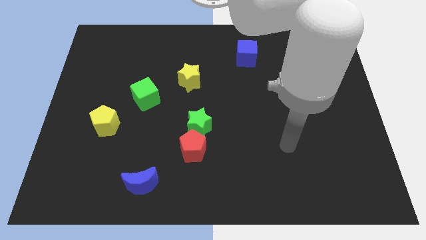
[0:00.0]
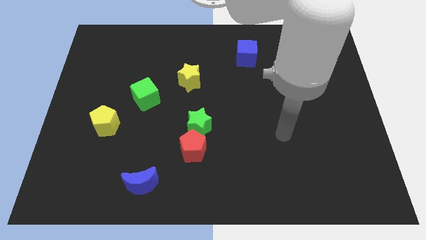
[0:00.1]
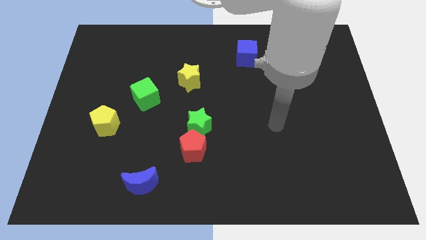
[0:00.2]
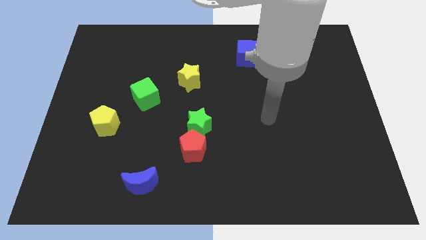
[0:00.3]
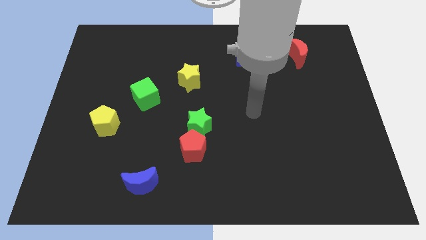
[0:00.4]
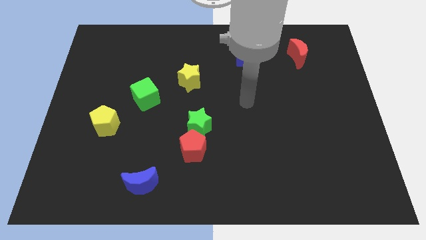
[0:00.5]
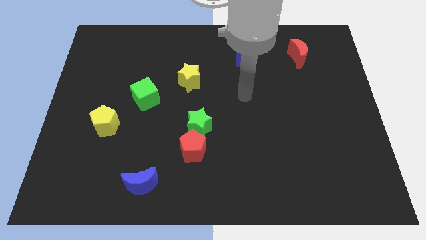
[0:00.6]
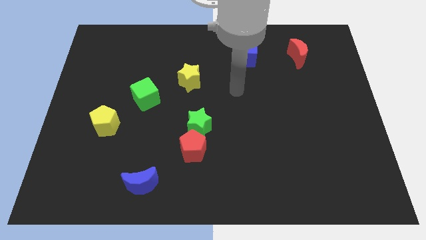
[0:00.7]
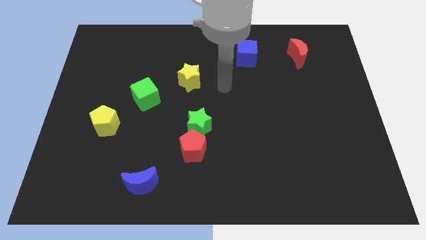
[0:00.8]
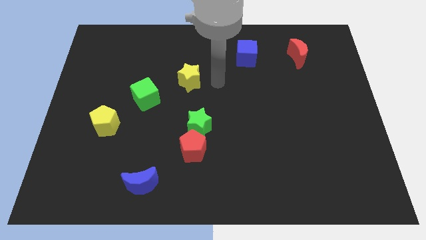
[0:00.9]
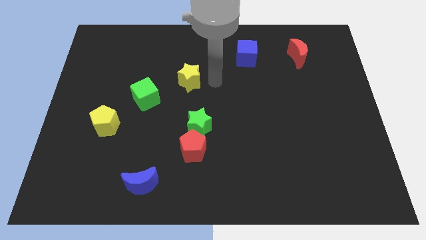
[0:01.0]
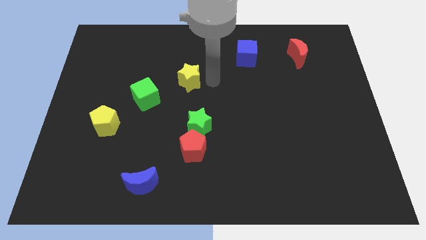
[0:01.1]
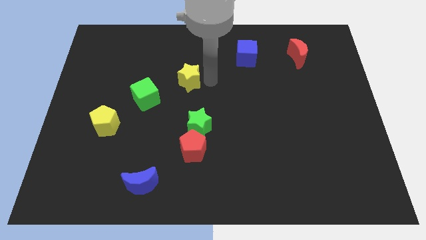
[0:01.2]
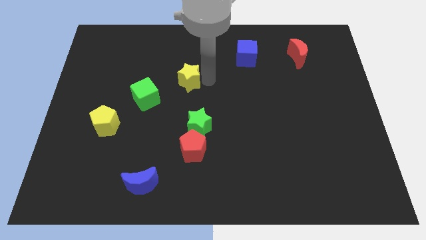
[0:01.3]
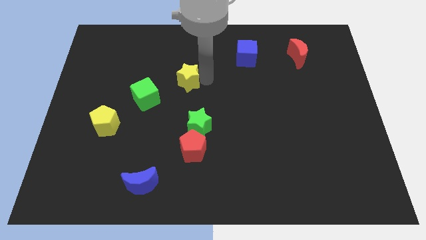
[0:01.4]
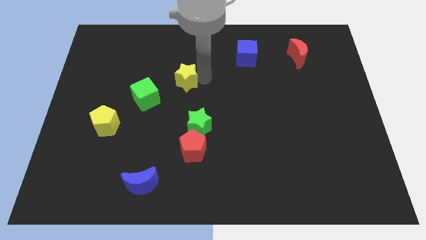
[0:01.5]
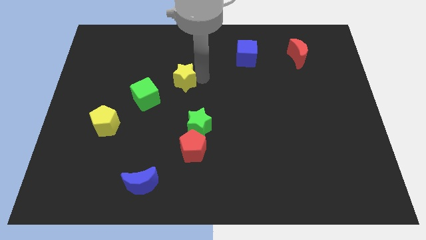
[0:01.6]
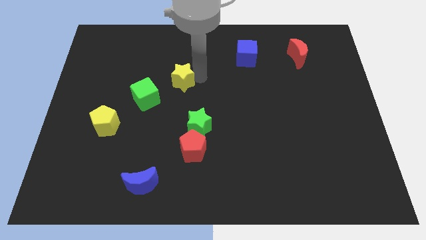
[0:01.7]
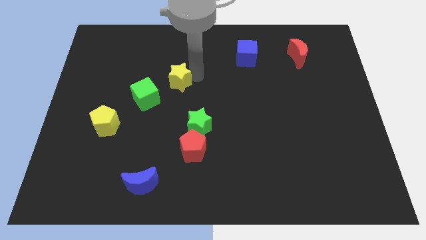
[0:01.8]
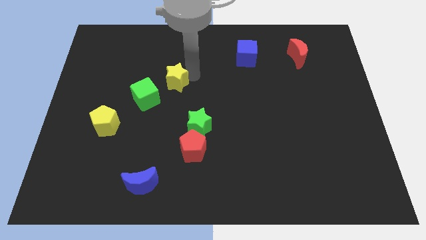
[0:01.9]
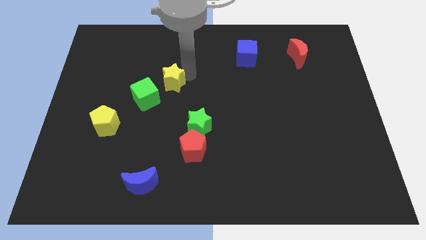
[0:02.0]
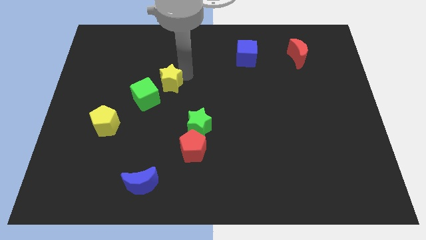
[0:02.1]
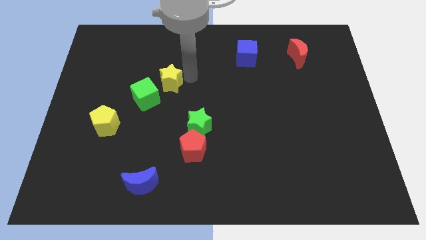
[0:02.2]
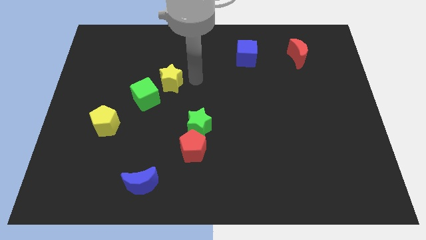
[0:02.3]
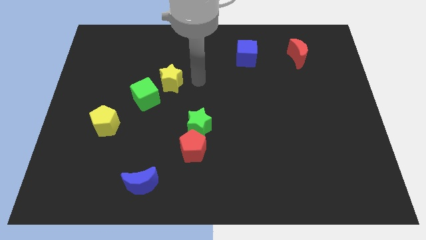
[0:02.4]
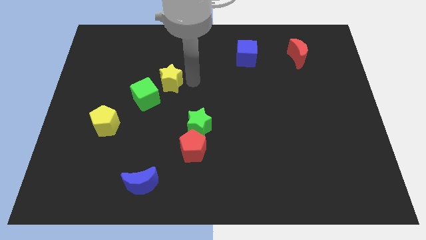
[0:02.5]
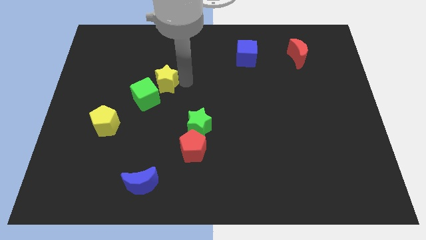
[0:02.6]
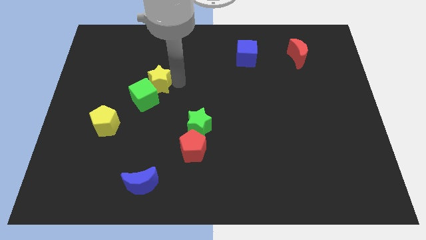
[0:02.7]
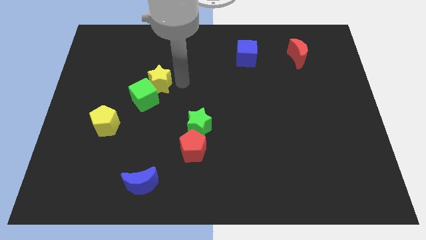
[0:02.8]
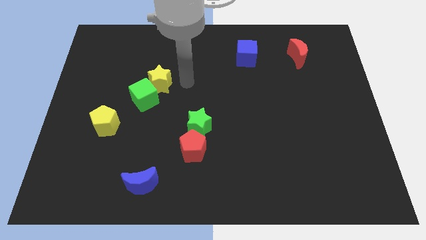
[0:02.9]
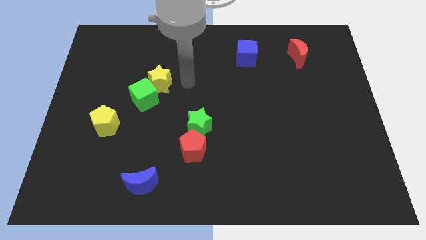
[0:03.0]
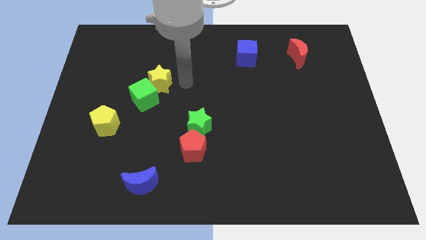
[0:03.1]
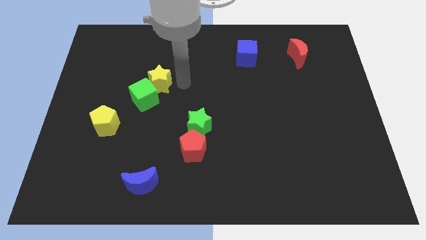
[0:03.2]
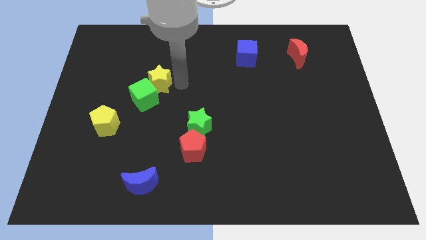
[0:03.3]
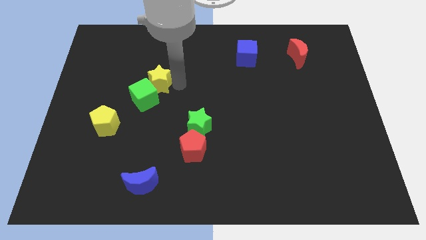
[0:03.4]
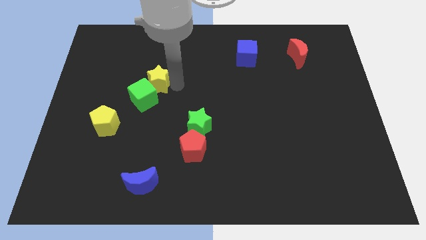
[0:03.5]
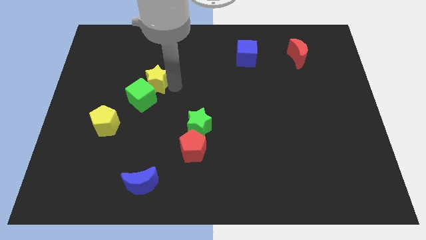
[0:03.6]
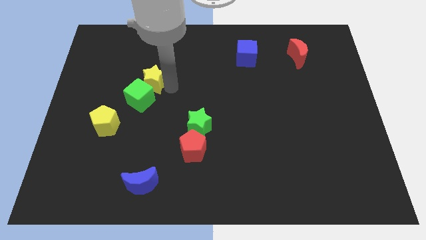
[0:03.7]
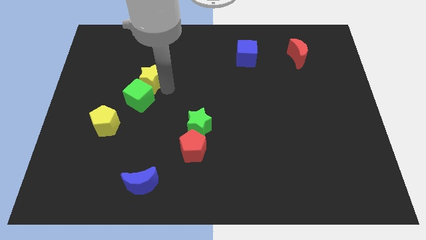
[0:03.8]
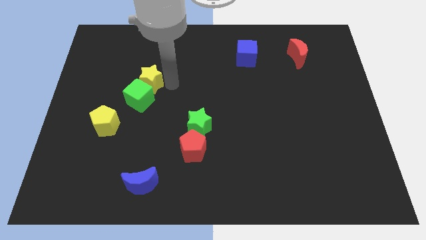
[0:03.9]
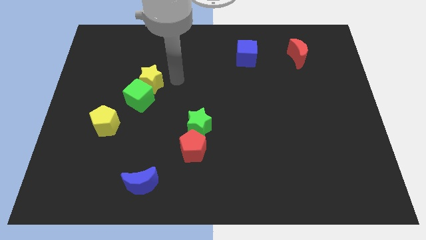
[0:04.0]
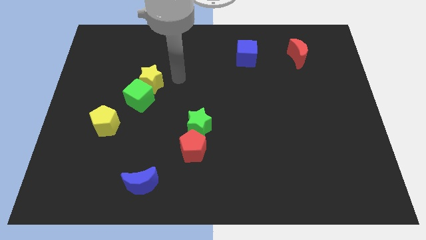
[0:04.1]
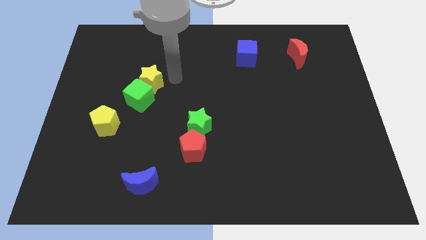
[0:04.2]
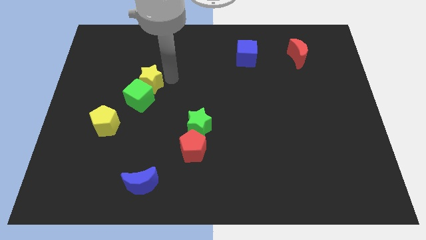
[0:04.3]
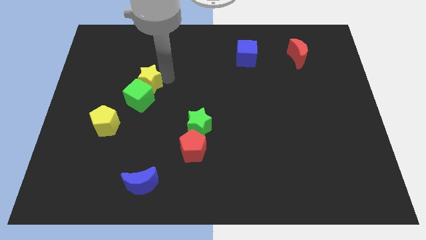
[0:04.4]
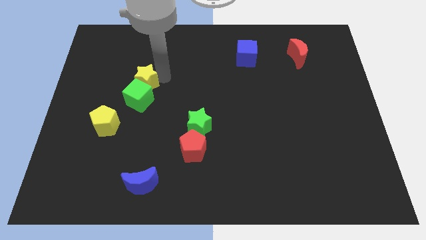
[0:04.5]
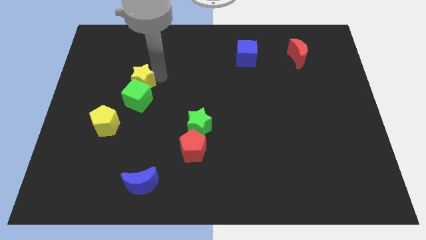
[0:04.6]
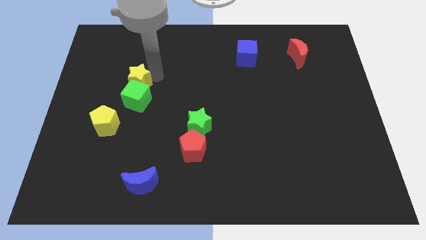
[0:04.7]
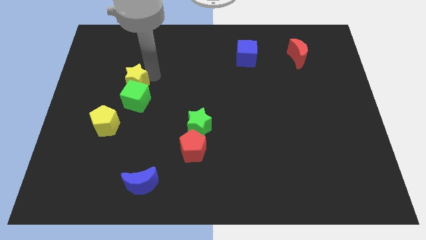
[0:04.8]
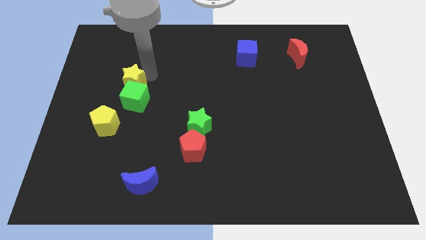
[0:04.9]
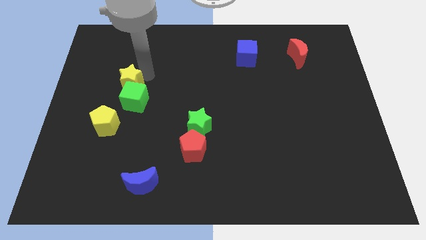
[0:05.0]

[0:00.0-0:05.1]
move the yellow star to the top of the yellow pentagon

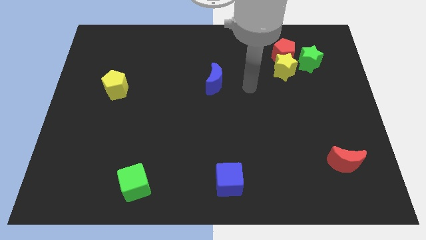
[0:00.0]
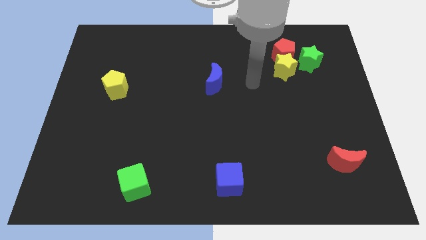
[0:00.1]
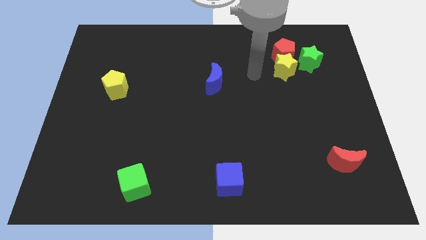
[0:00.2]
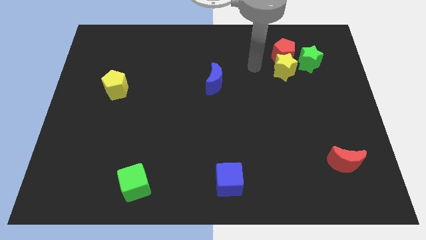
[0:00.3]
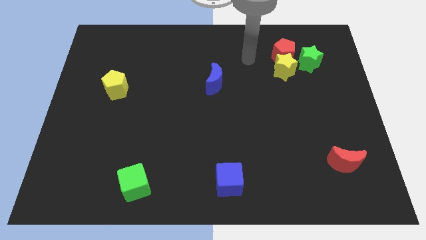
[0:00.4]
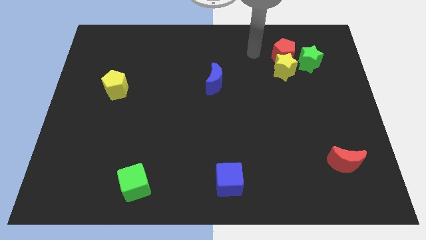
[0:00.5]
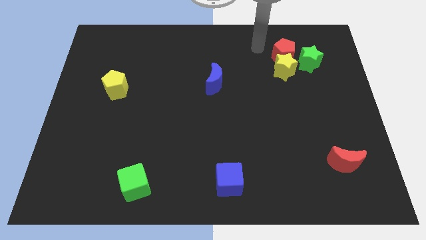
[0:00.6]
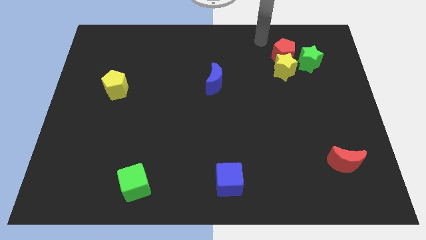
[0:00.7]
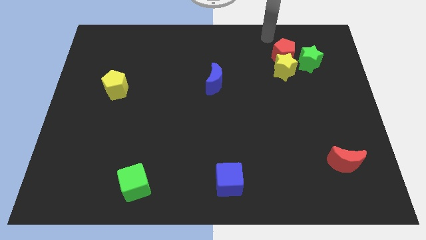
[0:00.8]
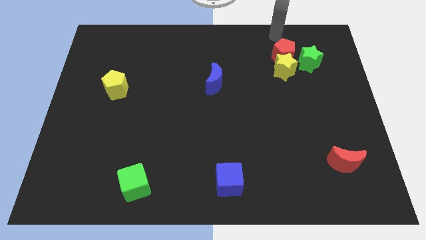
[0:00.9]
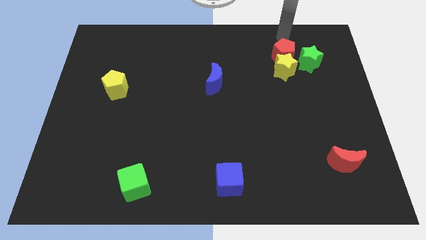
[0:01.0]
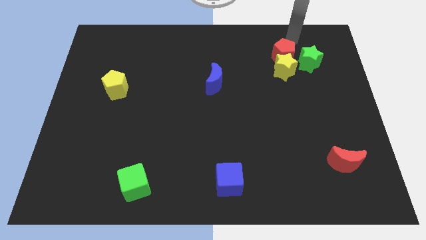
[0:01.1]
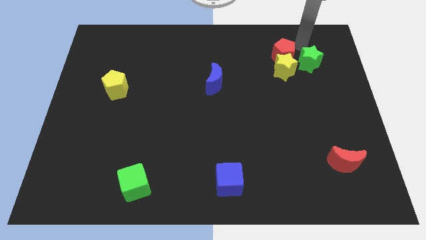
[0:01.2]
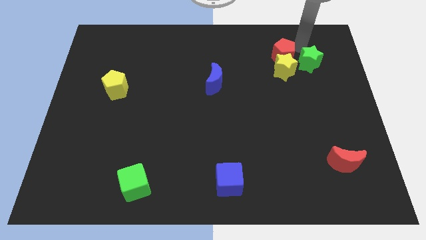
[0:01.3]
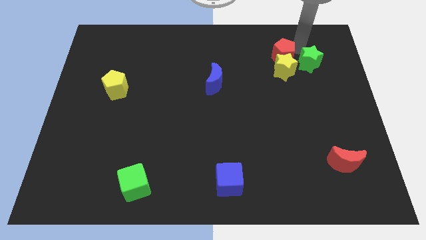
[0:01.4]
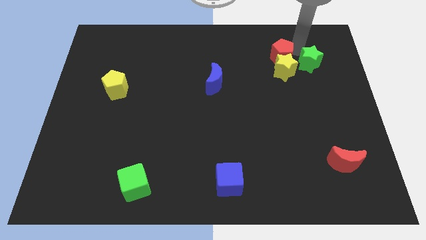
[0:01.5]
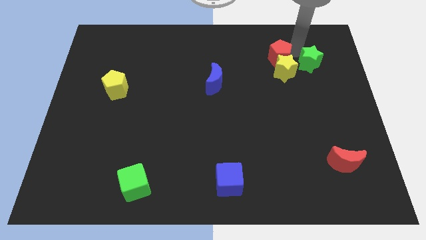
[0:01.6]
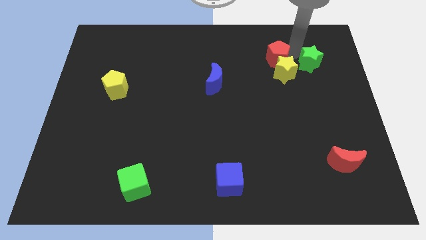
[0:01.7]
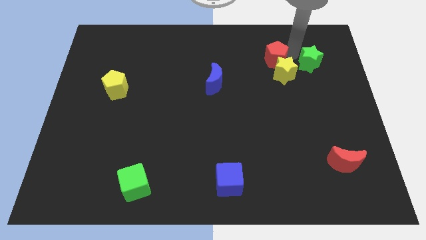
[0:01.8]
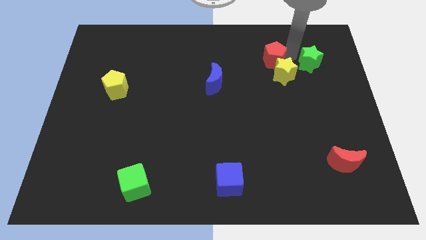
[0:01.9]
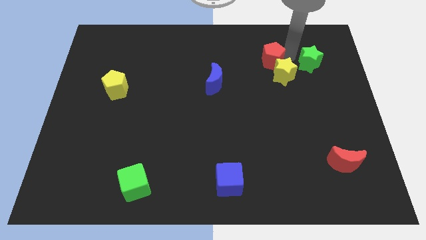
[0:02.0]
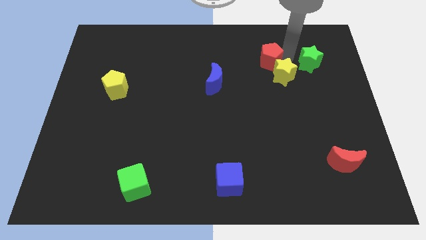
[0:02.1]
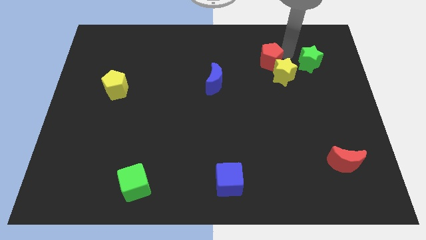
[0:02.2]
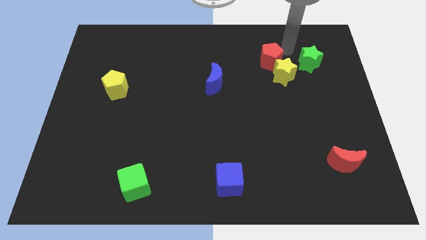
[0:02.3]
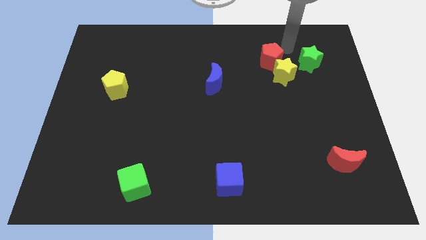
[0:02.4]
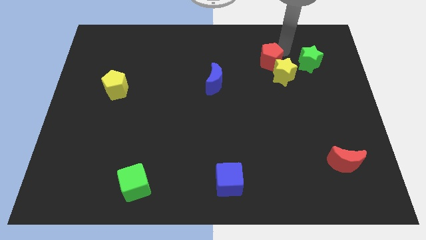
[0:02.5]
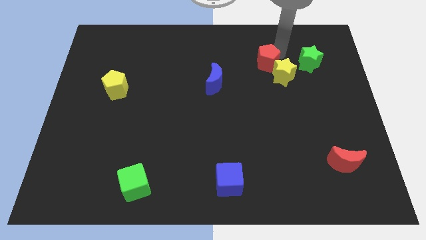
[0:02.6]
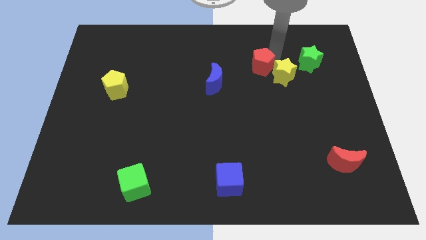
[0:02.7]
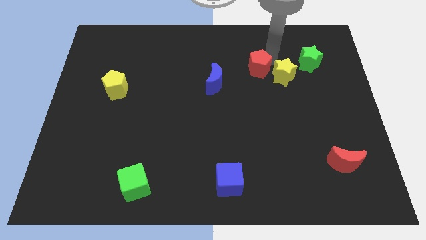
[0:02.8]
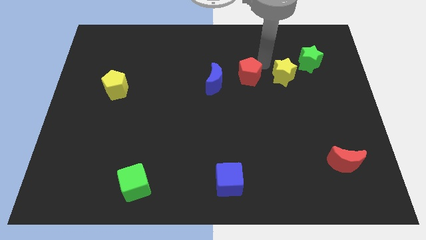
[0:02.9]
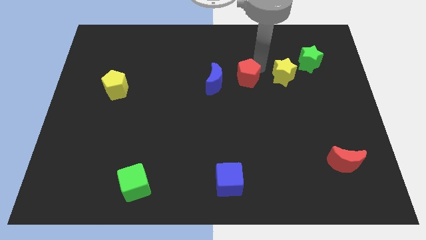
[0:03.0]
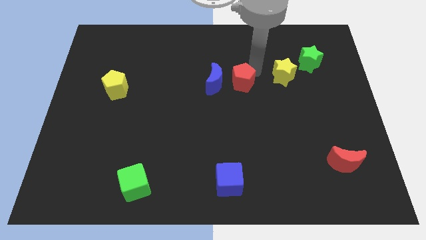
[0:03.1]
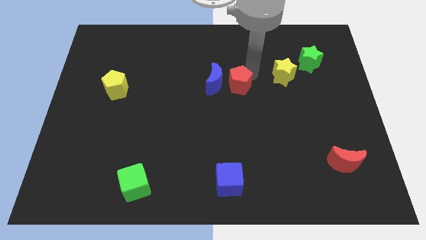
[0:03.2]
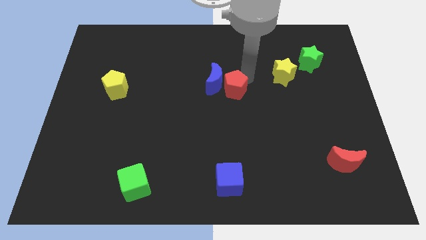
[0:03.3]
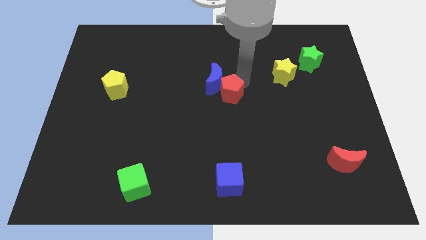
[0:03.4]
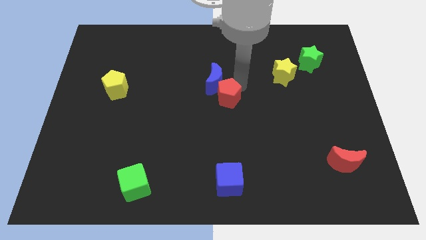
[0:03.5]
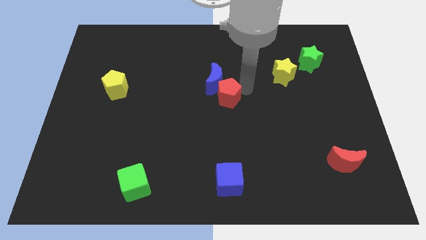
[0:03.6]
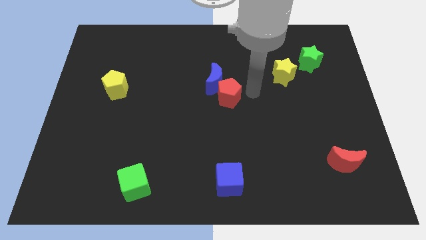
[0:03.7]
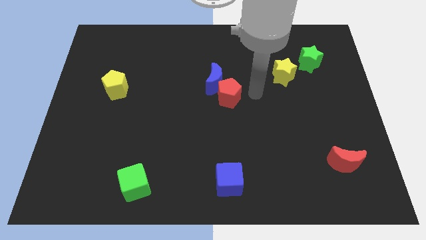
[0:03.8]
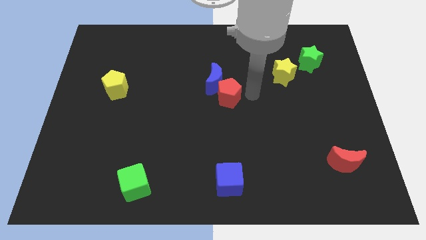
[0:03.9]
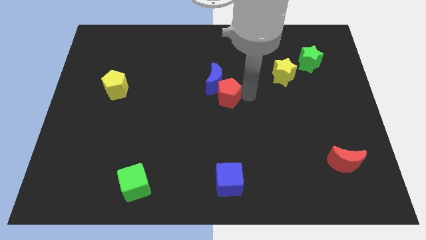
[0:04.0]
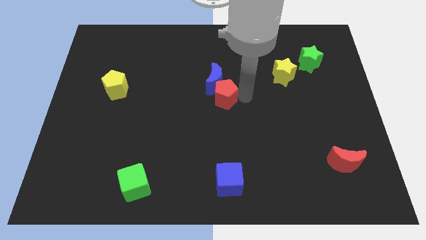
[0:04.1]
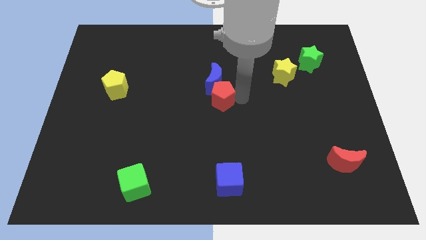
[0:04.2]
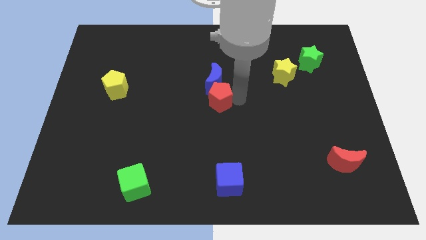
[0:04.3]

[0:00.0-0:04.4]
push the red pentagon to the bottom left of the blue moon
